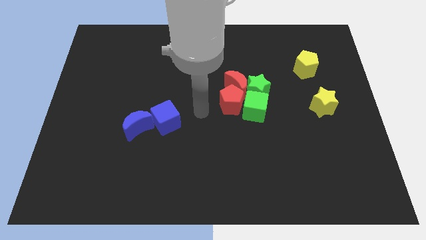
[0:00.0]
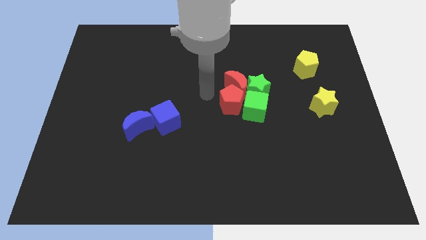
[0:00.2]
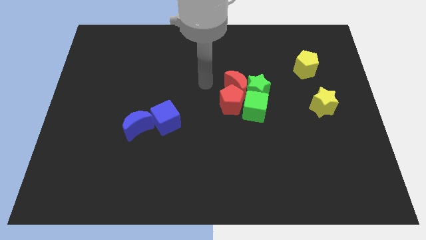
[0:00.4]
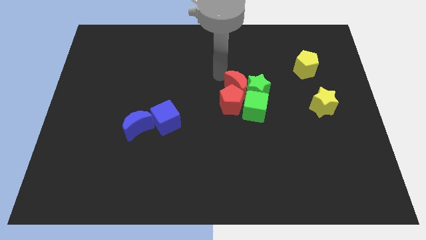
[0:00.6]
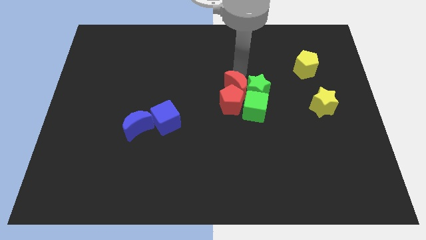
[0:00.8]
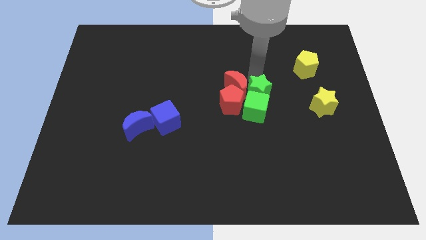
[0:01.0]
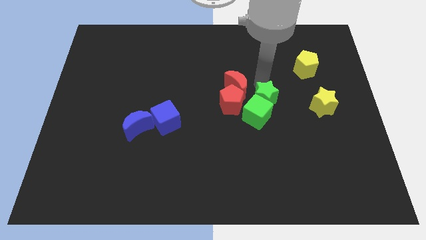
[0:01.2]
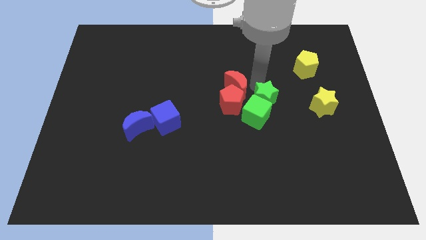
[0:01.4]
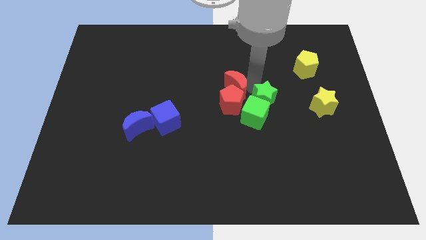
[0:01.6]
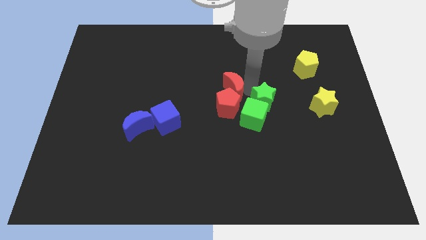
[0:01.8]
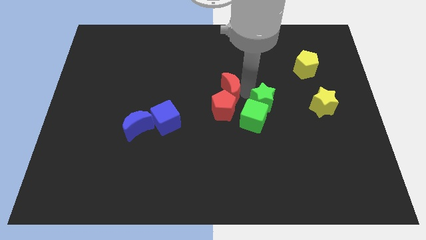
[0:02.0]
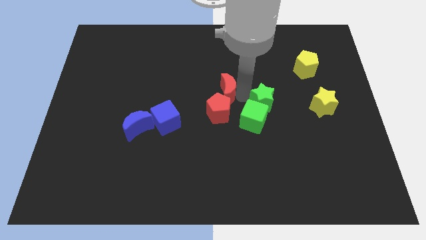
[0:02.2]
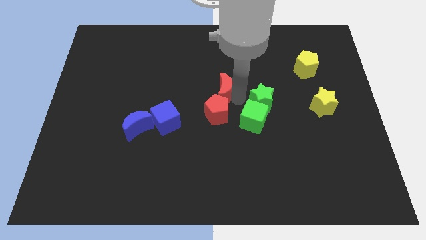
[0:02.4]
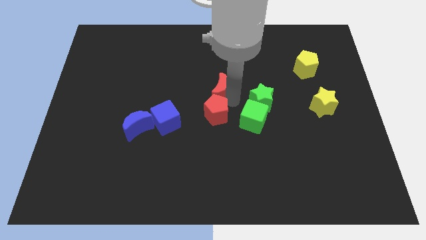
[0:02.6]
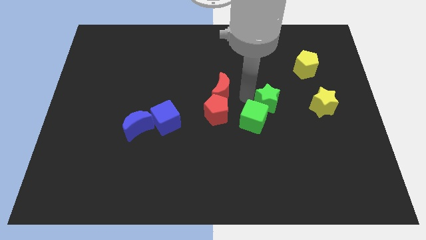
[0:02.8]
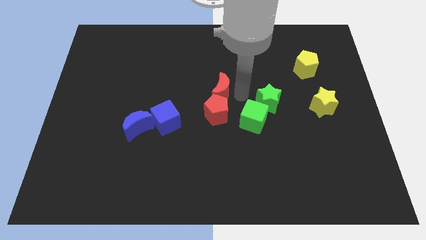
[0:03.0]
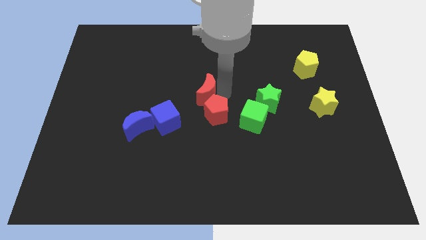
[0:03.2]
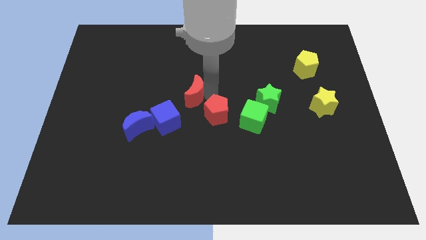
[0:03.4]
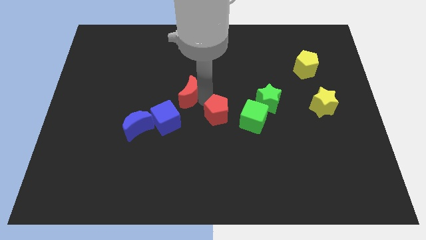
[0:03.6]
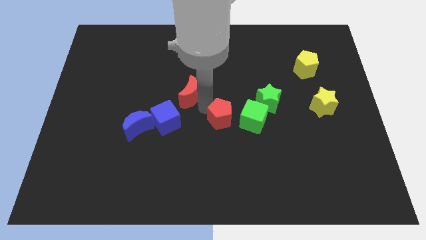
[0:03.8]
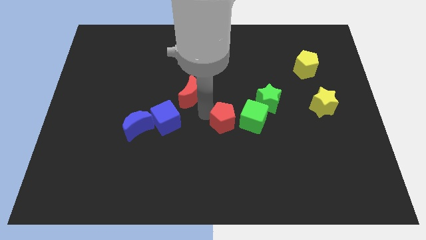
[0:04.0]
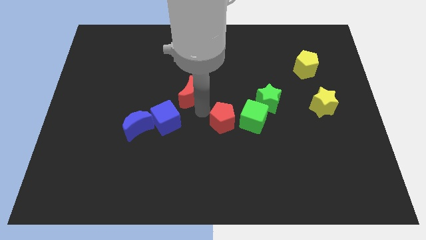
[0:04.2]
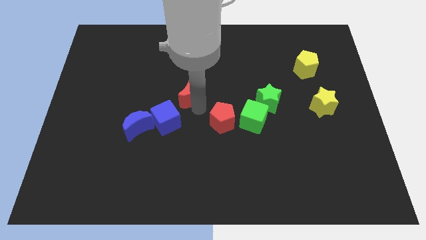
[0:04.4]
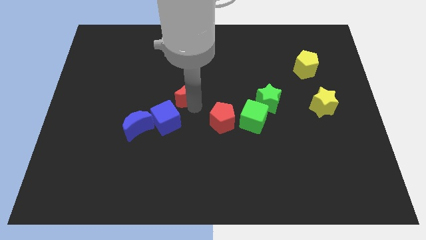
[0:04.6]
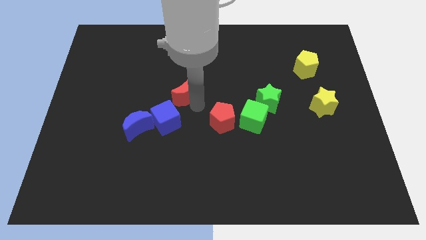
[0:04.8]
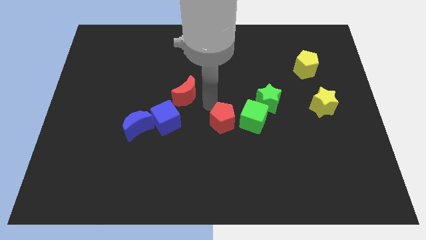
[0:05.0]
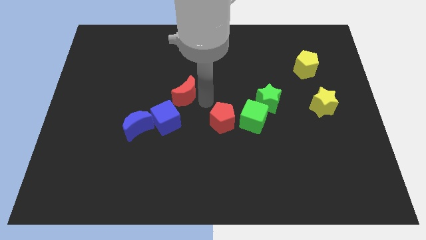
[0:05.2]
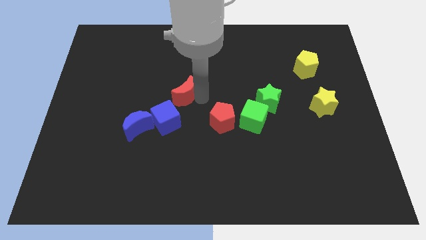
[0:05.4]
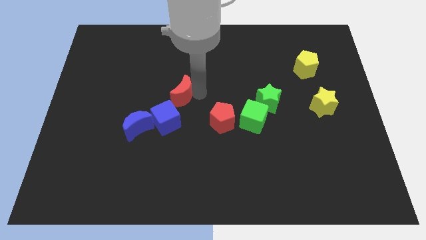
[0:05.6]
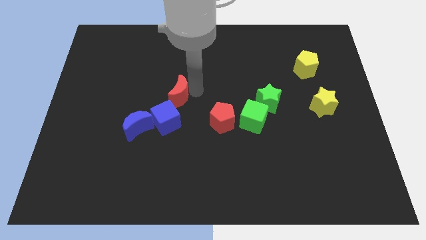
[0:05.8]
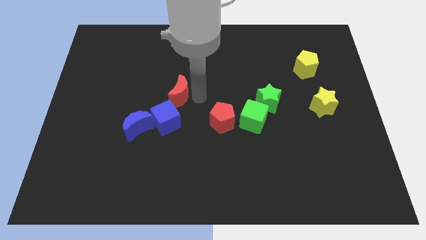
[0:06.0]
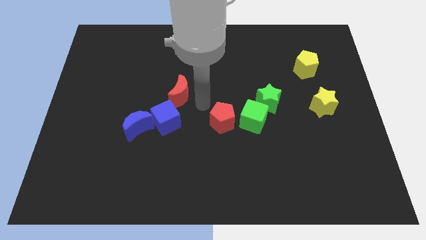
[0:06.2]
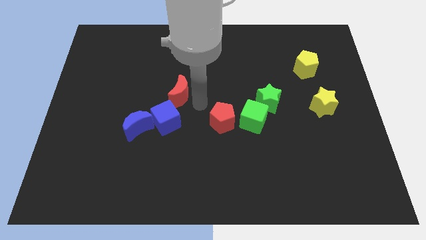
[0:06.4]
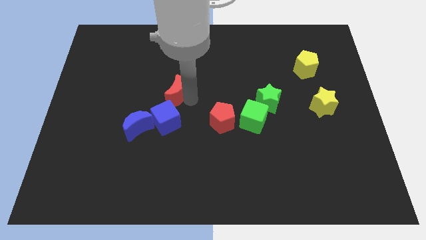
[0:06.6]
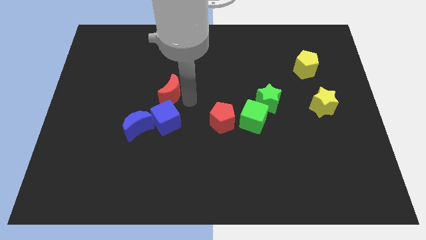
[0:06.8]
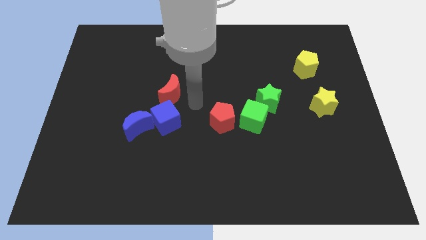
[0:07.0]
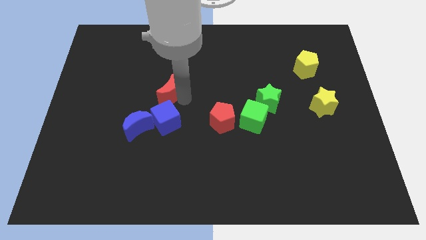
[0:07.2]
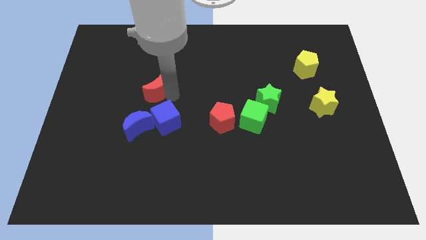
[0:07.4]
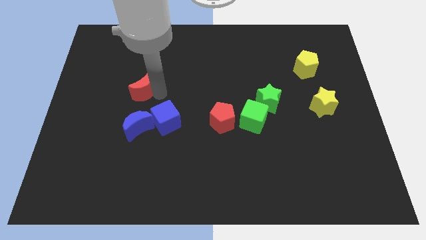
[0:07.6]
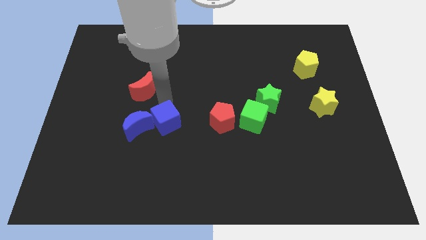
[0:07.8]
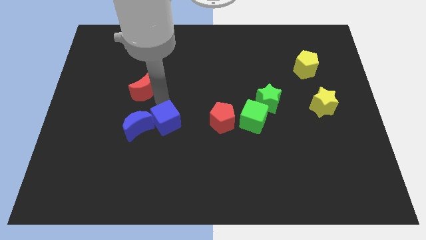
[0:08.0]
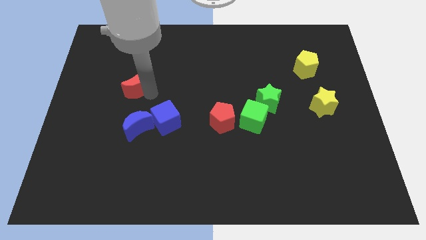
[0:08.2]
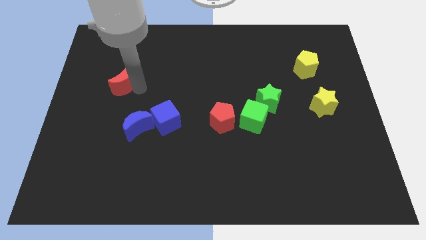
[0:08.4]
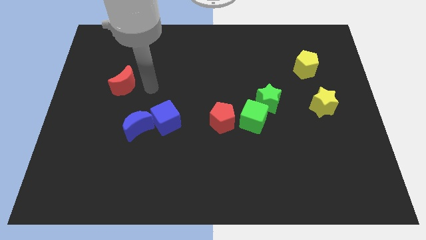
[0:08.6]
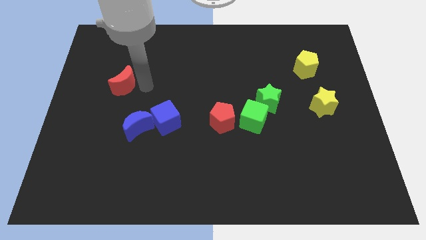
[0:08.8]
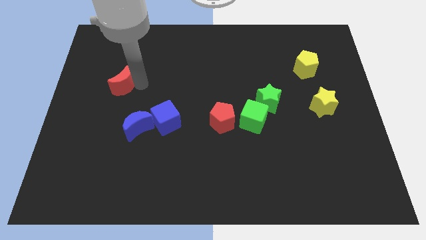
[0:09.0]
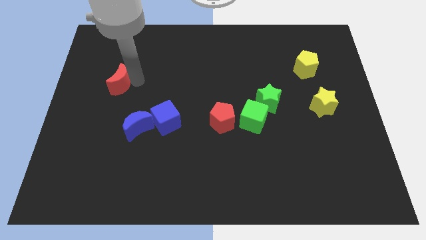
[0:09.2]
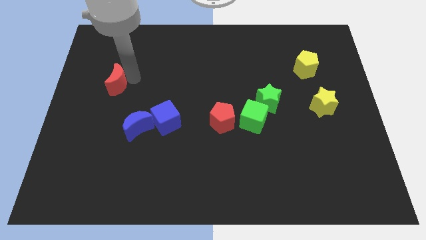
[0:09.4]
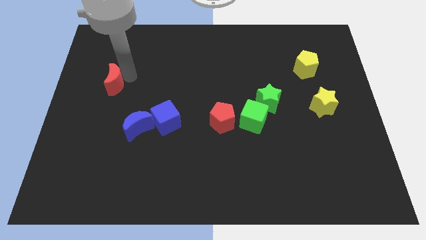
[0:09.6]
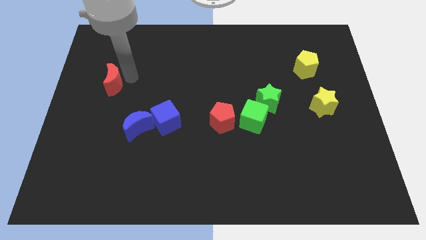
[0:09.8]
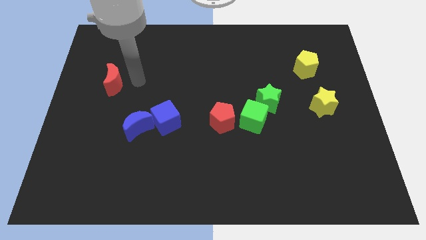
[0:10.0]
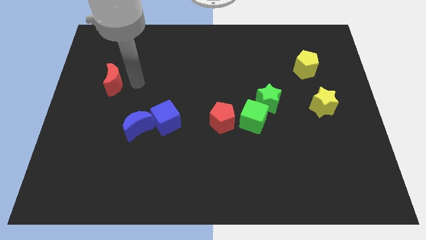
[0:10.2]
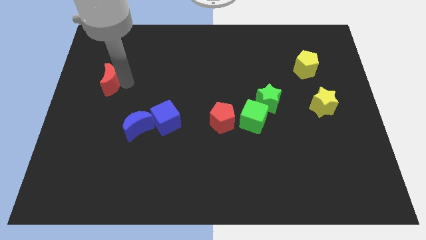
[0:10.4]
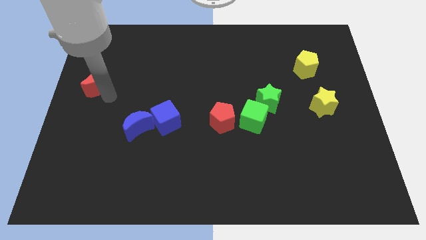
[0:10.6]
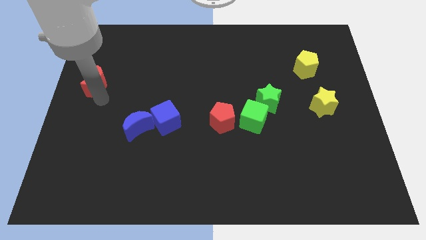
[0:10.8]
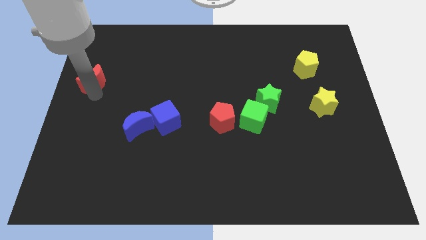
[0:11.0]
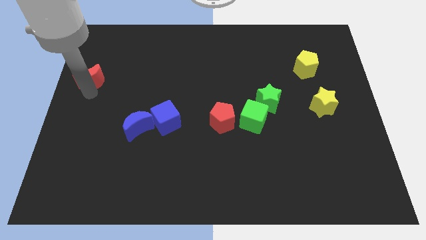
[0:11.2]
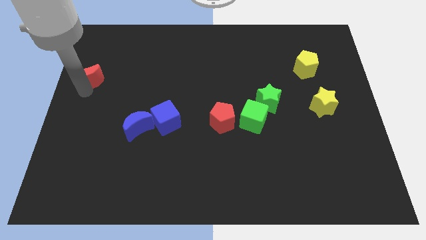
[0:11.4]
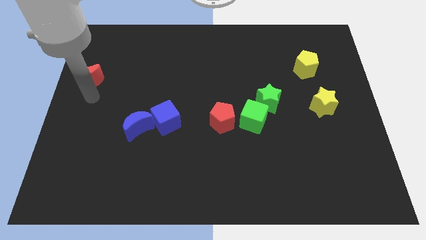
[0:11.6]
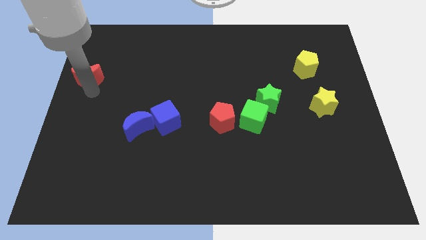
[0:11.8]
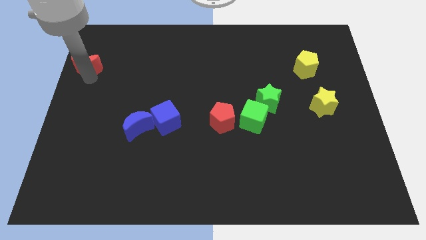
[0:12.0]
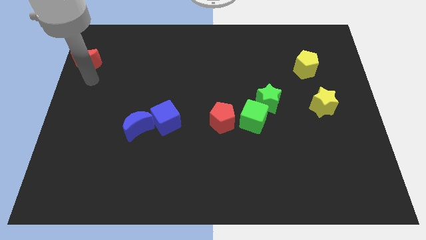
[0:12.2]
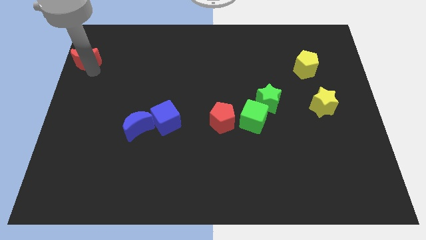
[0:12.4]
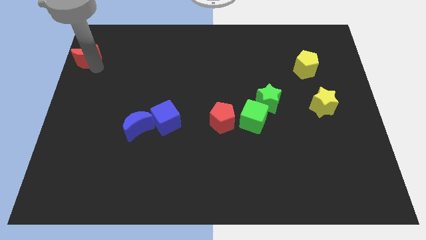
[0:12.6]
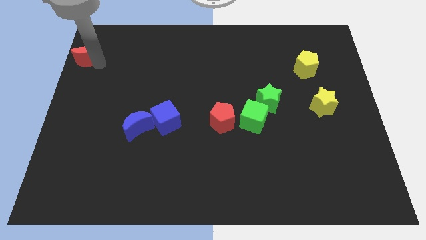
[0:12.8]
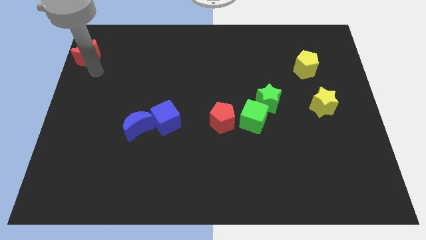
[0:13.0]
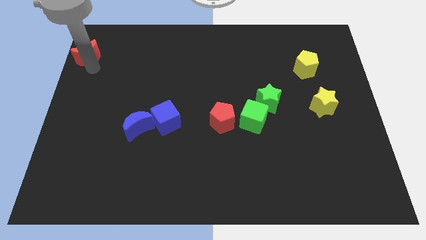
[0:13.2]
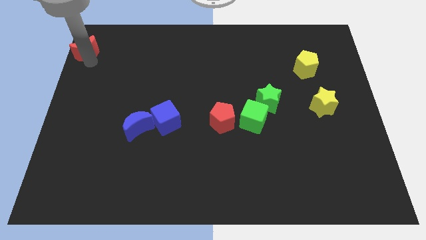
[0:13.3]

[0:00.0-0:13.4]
push the red moon to the top left of the board
